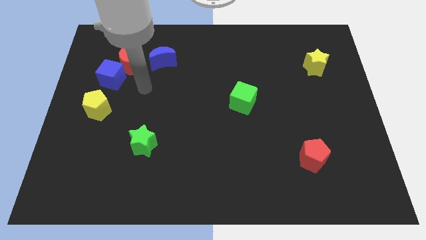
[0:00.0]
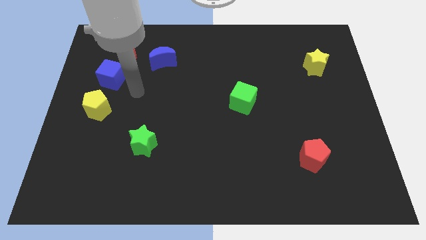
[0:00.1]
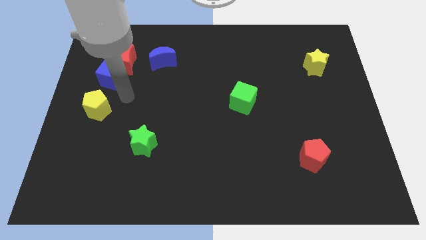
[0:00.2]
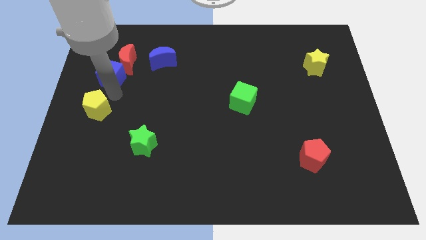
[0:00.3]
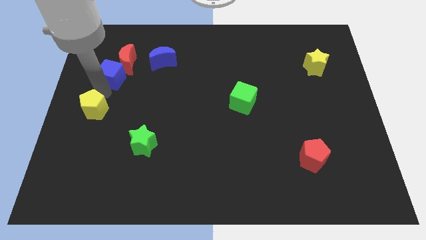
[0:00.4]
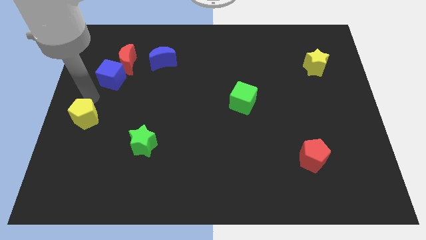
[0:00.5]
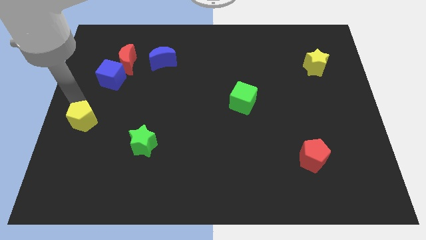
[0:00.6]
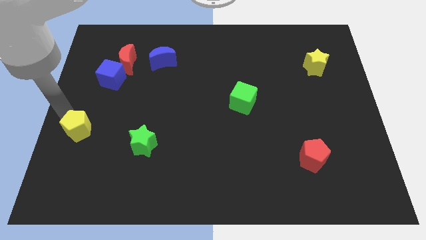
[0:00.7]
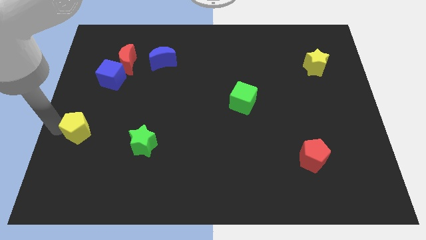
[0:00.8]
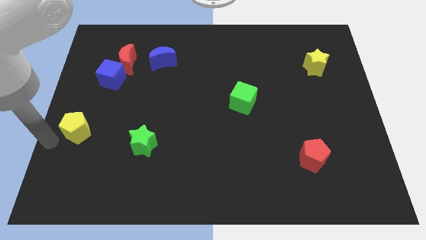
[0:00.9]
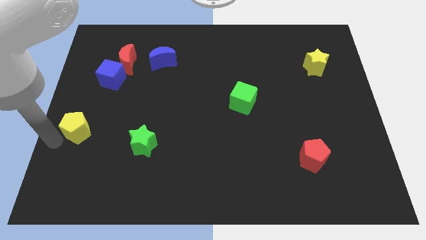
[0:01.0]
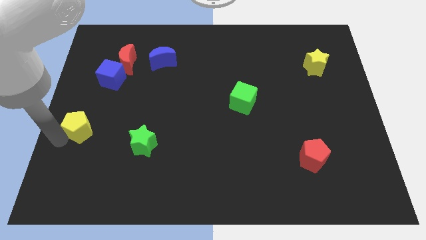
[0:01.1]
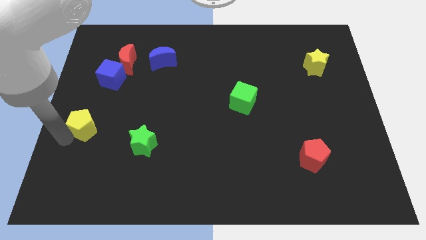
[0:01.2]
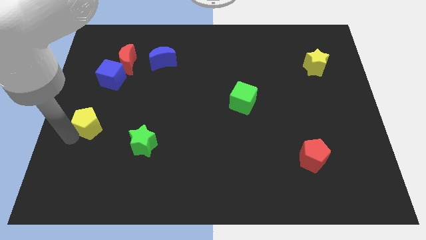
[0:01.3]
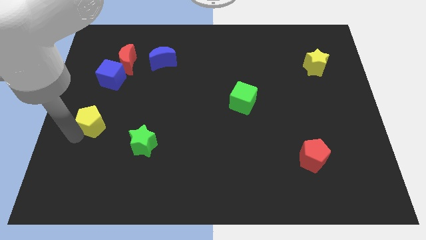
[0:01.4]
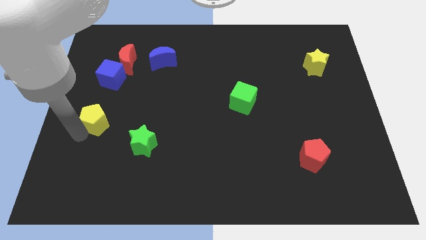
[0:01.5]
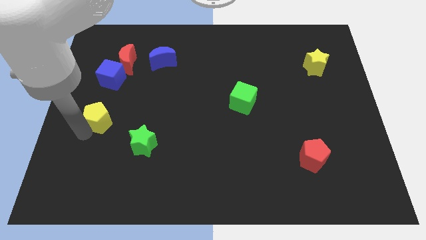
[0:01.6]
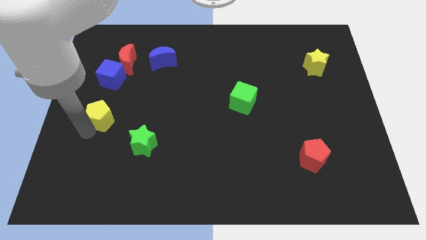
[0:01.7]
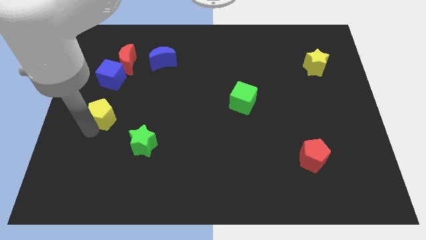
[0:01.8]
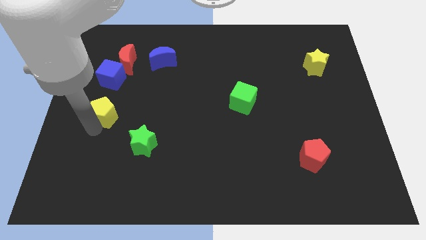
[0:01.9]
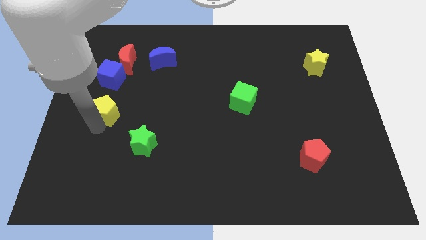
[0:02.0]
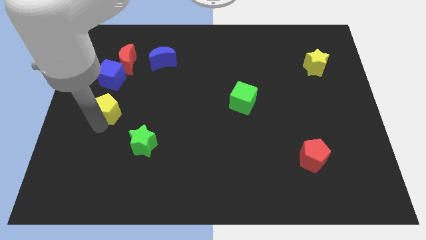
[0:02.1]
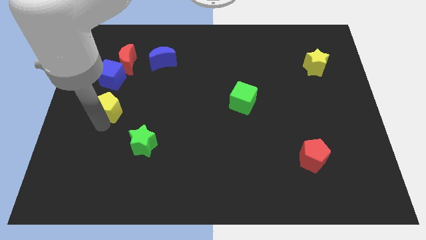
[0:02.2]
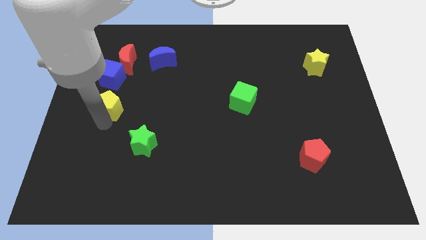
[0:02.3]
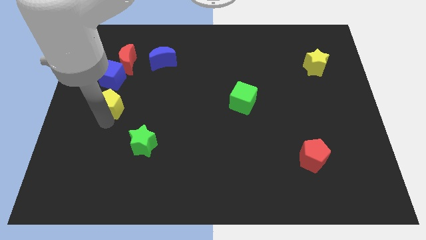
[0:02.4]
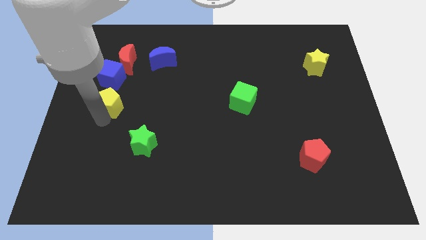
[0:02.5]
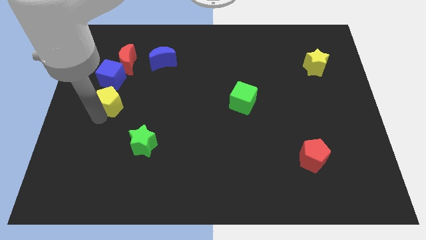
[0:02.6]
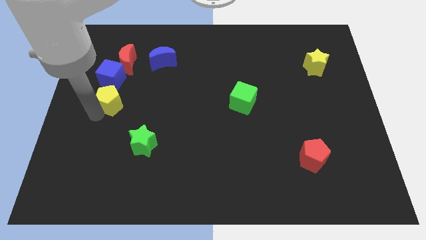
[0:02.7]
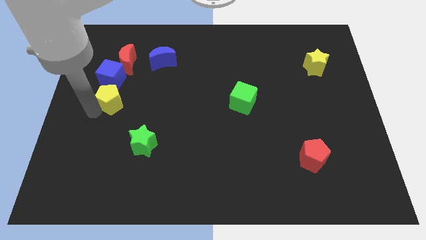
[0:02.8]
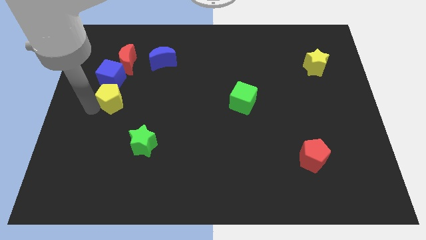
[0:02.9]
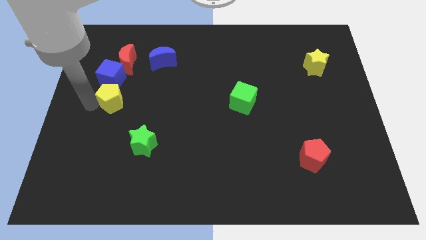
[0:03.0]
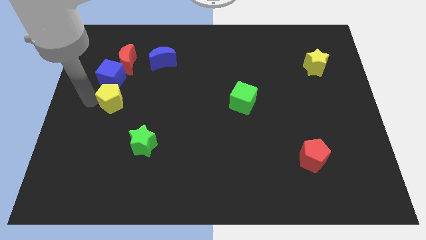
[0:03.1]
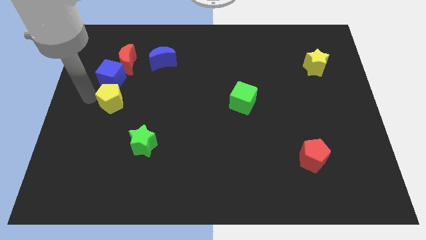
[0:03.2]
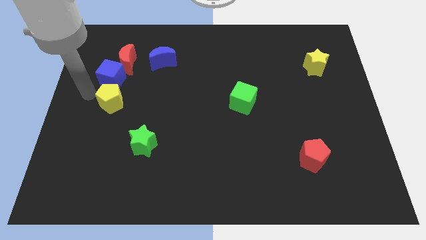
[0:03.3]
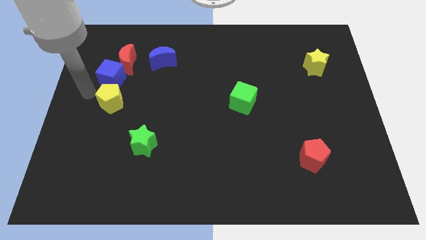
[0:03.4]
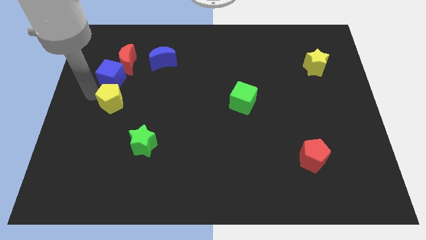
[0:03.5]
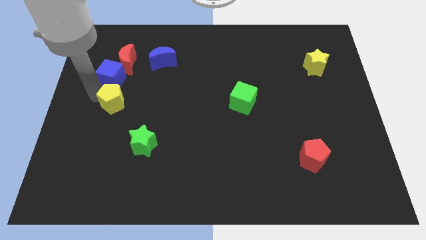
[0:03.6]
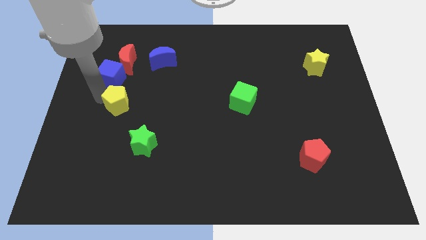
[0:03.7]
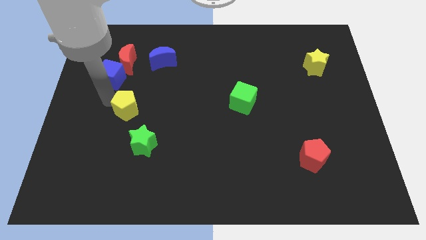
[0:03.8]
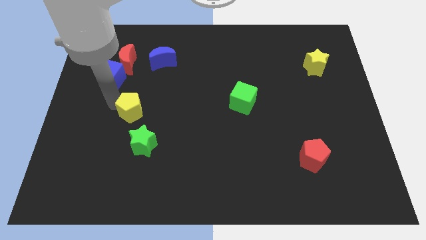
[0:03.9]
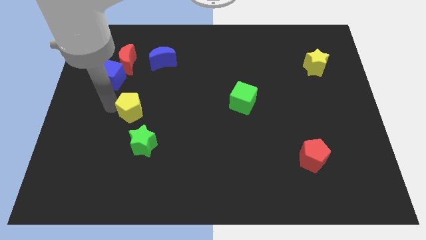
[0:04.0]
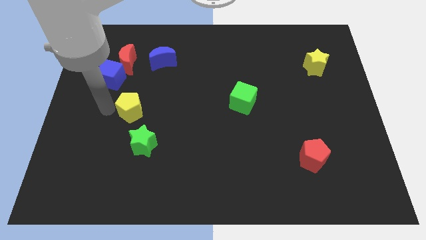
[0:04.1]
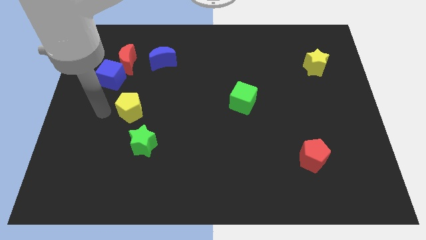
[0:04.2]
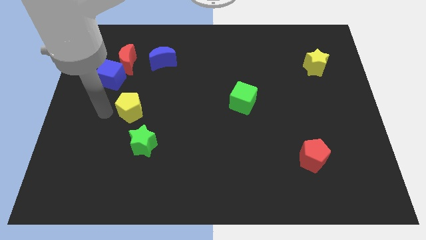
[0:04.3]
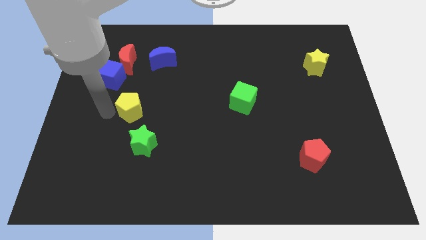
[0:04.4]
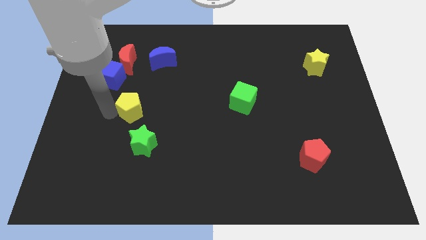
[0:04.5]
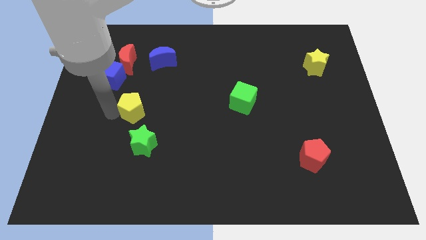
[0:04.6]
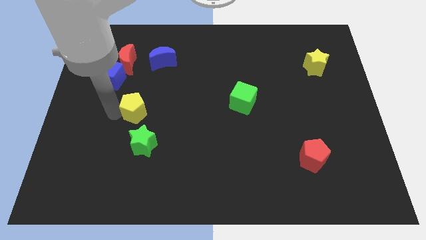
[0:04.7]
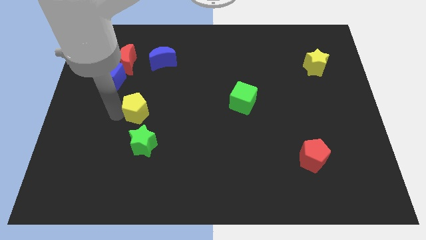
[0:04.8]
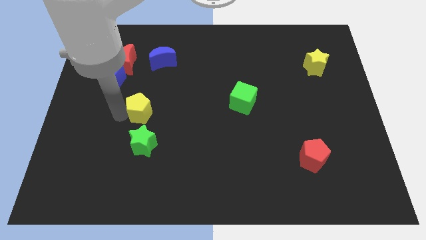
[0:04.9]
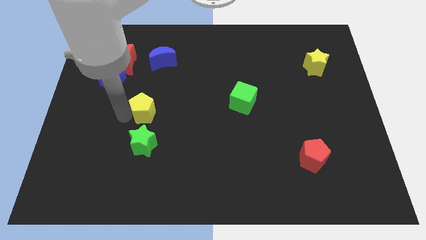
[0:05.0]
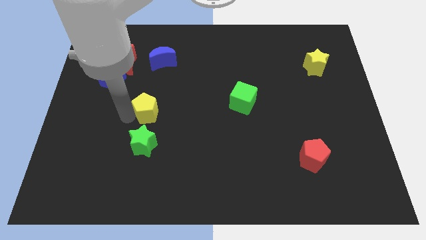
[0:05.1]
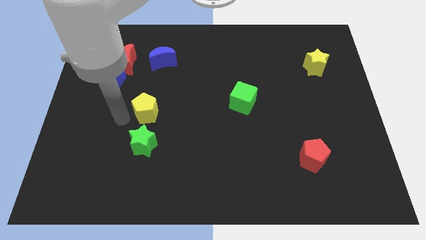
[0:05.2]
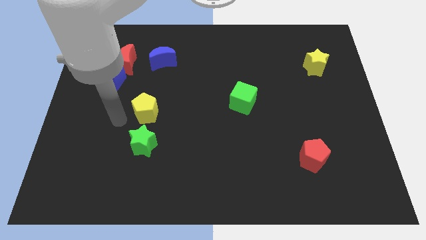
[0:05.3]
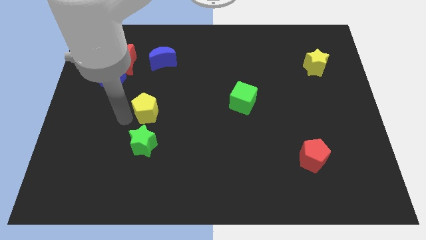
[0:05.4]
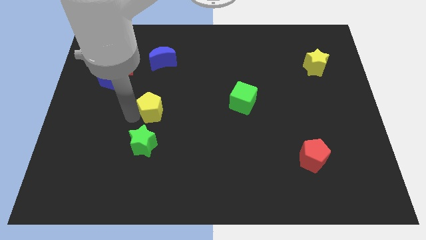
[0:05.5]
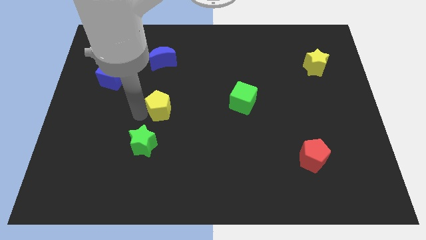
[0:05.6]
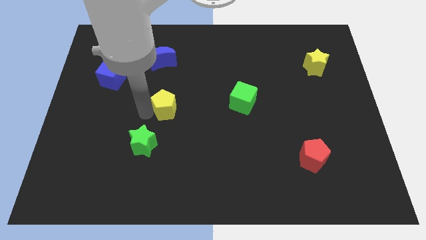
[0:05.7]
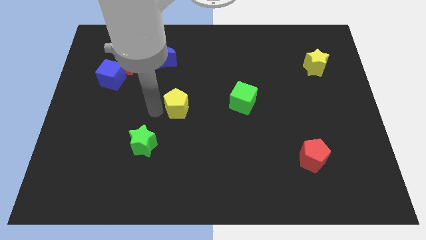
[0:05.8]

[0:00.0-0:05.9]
move the yellow pentagon just left of the green cube

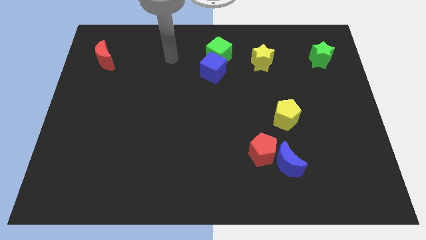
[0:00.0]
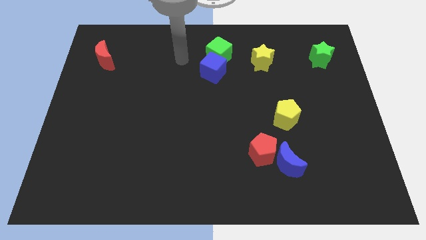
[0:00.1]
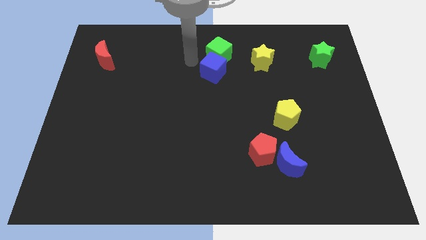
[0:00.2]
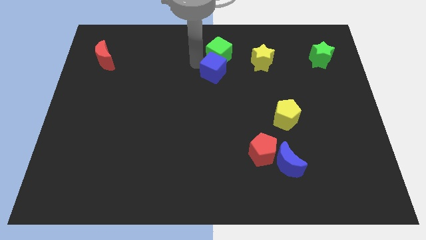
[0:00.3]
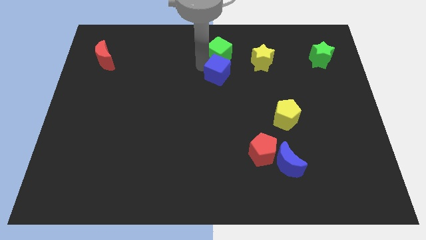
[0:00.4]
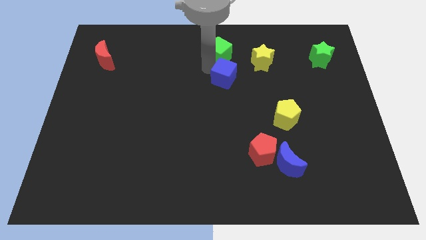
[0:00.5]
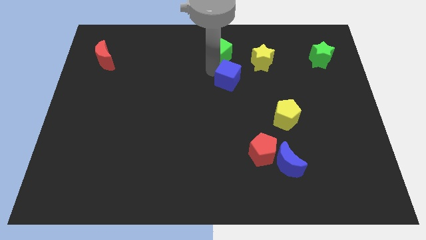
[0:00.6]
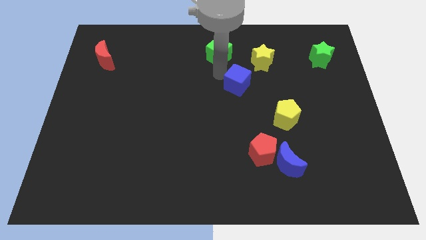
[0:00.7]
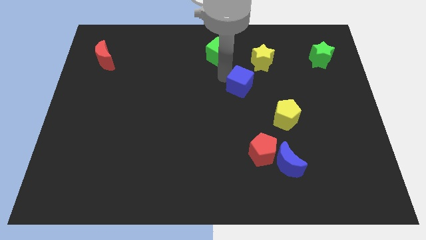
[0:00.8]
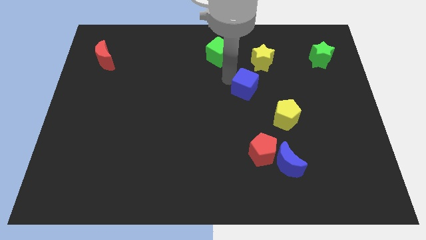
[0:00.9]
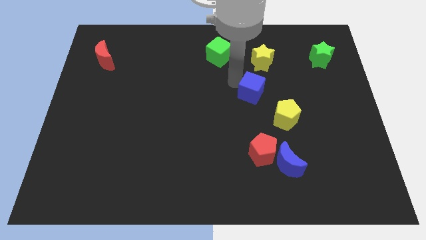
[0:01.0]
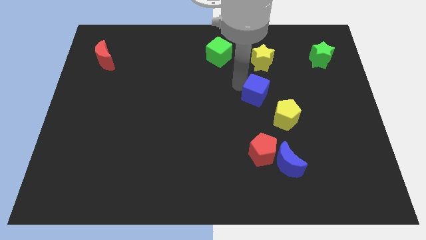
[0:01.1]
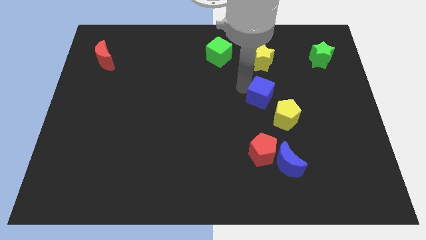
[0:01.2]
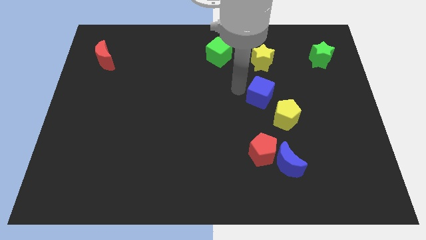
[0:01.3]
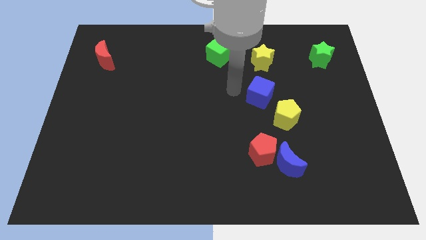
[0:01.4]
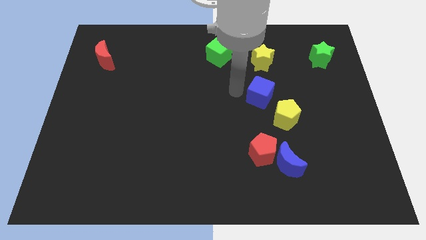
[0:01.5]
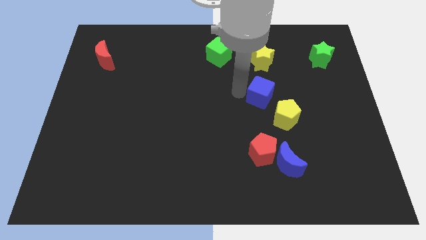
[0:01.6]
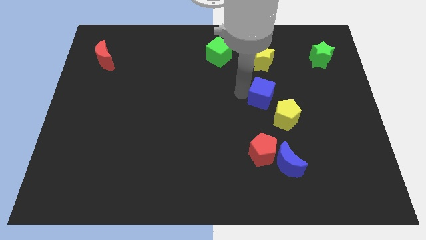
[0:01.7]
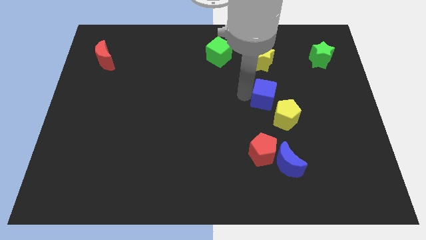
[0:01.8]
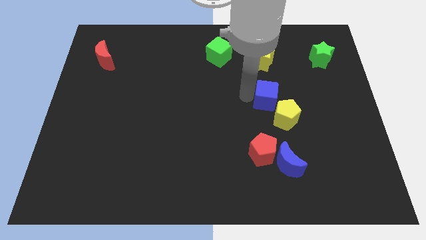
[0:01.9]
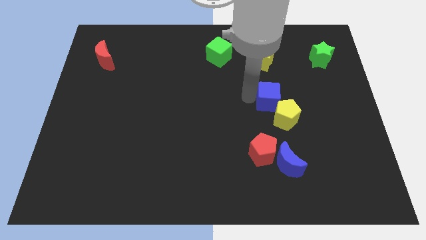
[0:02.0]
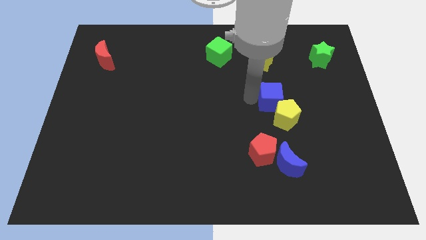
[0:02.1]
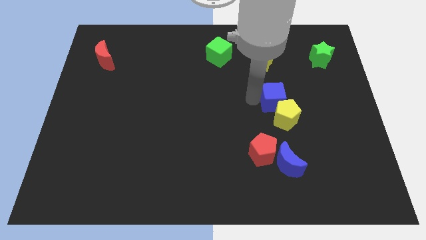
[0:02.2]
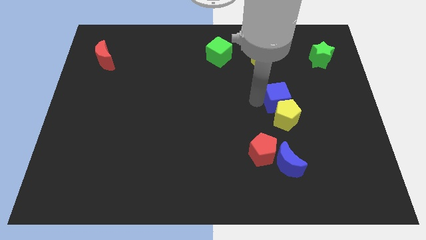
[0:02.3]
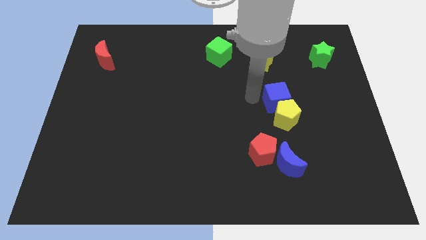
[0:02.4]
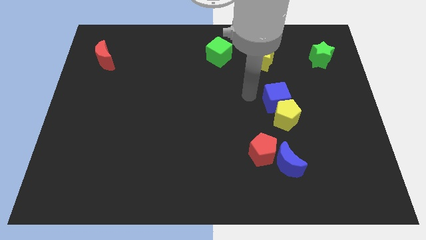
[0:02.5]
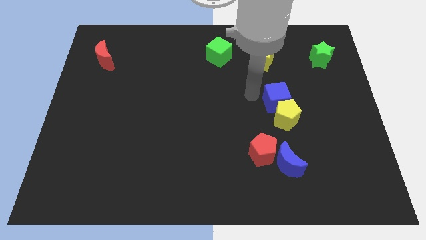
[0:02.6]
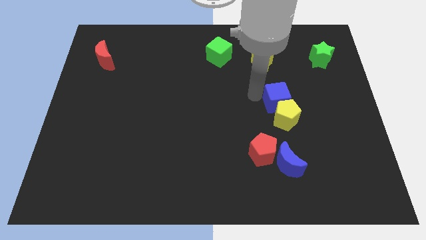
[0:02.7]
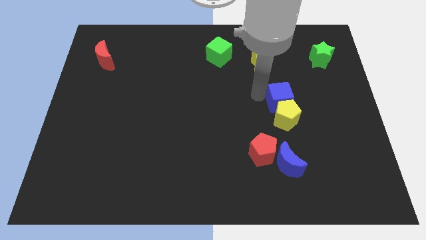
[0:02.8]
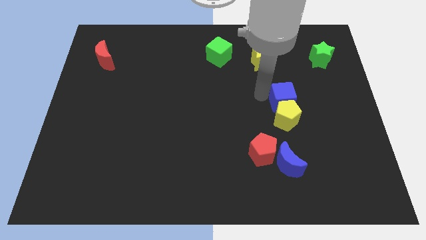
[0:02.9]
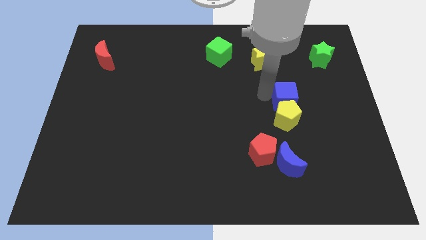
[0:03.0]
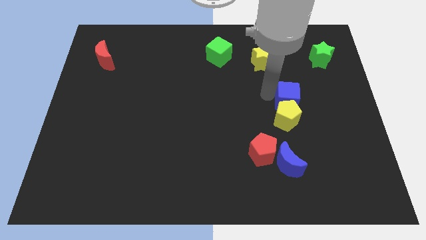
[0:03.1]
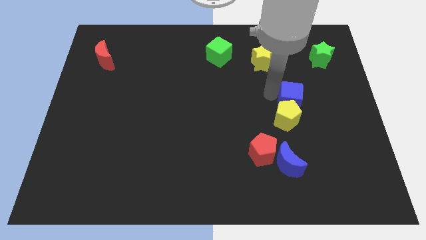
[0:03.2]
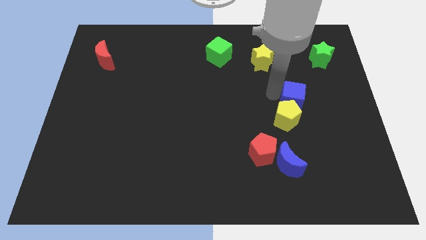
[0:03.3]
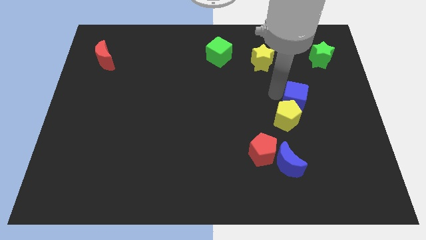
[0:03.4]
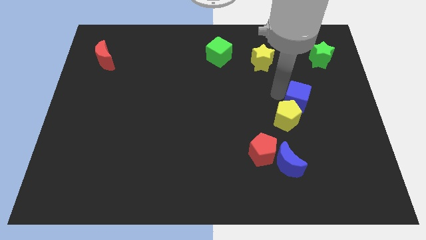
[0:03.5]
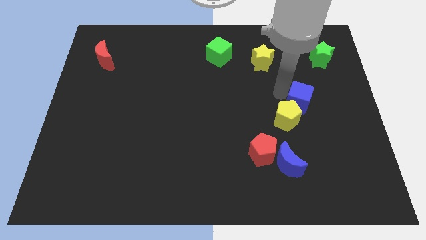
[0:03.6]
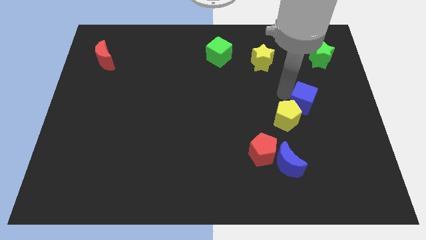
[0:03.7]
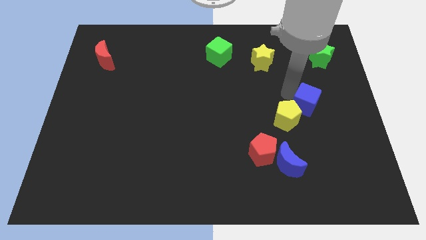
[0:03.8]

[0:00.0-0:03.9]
slide the blue cube just right of the yellow pentagon
